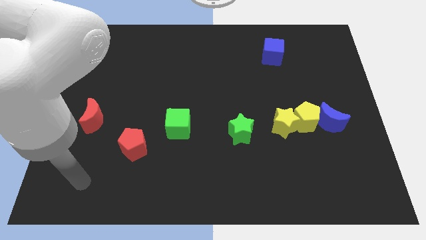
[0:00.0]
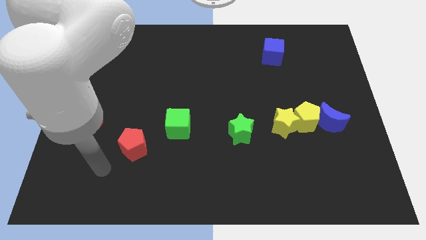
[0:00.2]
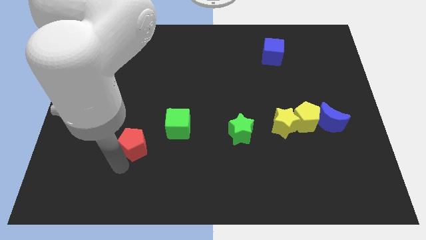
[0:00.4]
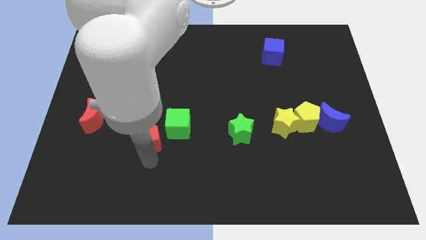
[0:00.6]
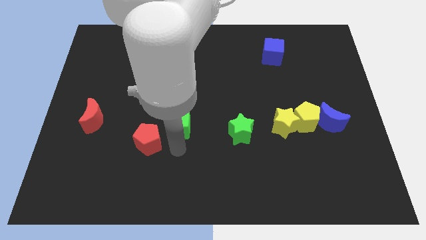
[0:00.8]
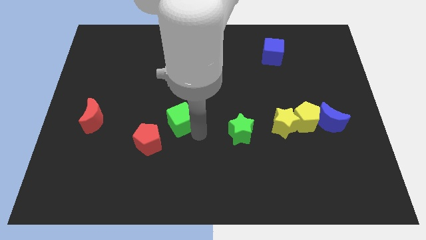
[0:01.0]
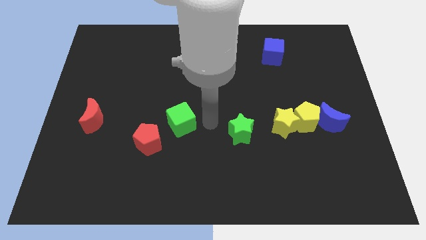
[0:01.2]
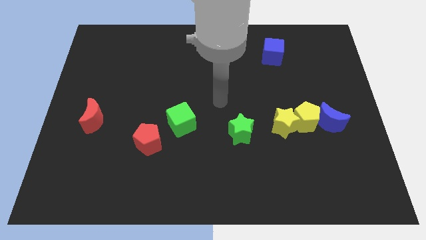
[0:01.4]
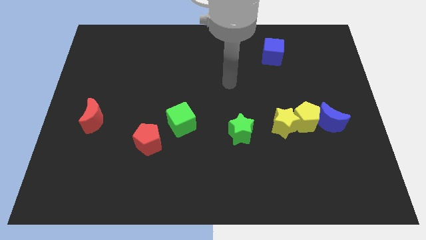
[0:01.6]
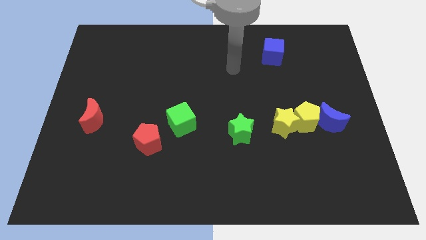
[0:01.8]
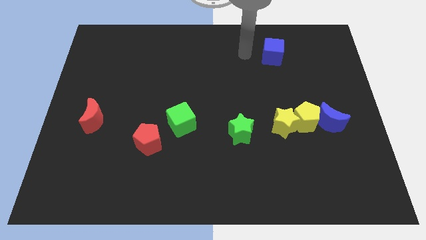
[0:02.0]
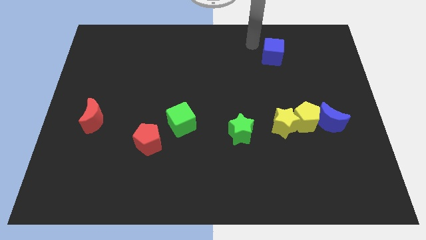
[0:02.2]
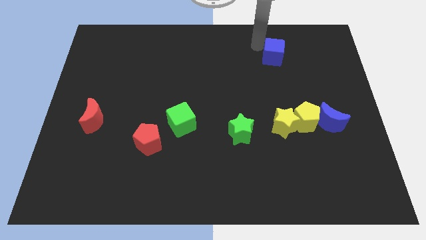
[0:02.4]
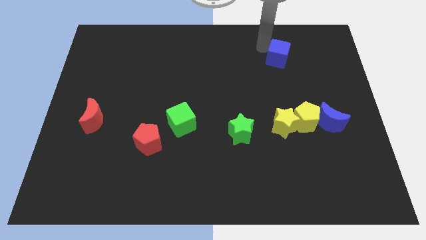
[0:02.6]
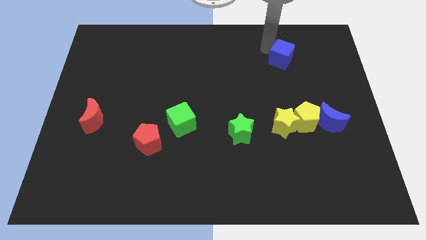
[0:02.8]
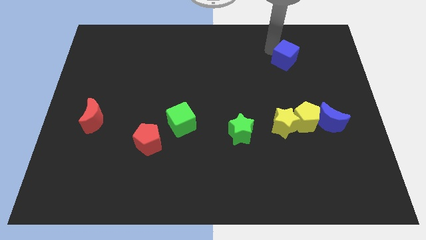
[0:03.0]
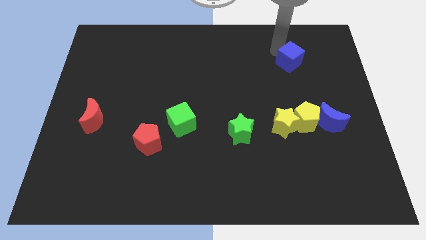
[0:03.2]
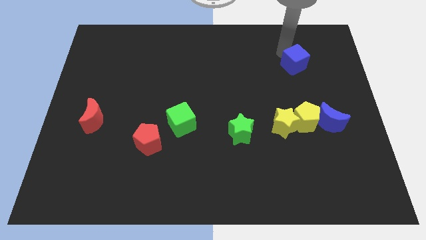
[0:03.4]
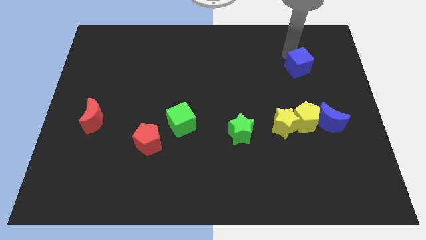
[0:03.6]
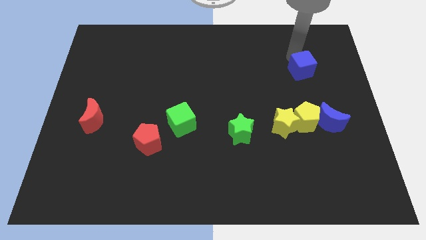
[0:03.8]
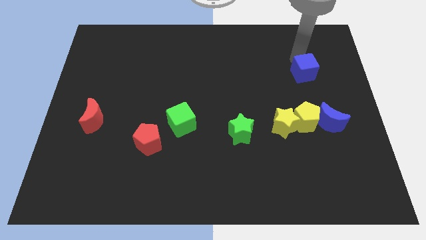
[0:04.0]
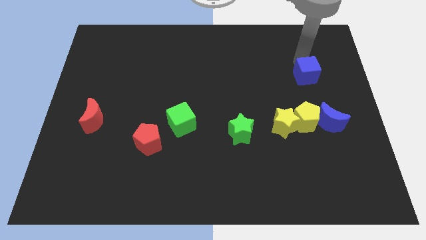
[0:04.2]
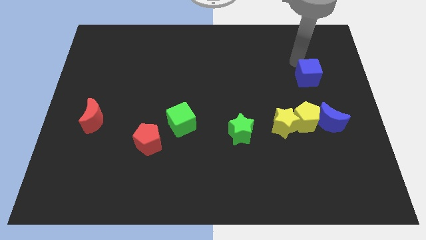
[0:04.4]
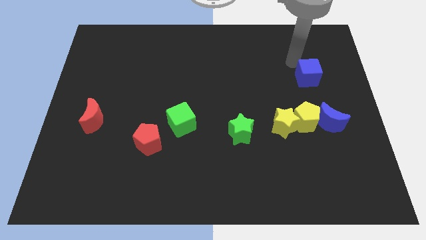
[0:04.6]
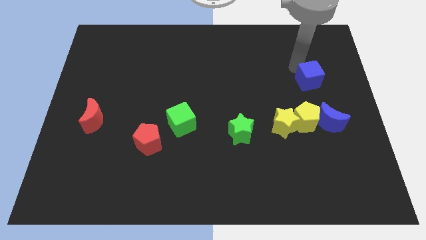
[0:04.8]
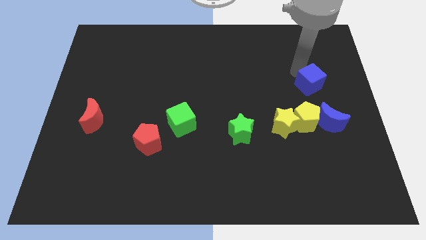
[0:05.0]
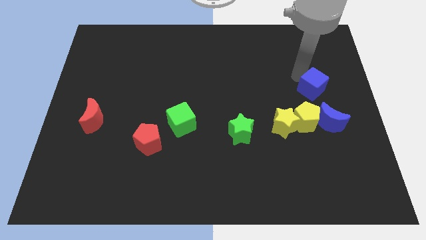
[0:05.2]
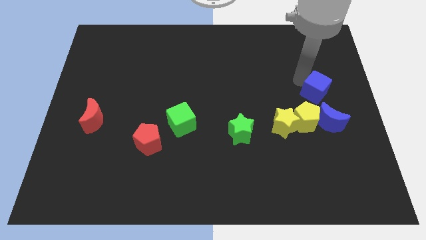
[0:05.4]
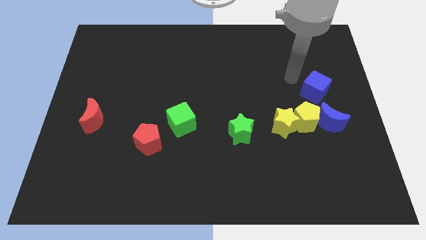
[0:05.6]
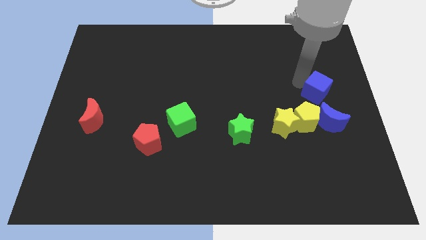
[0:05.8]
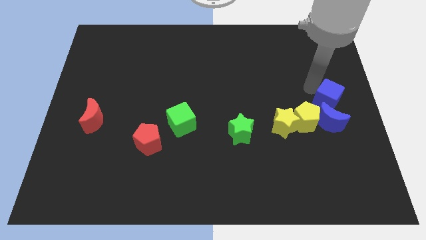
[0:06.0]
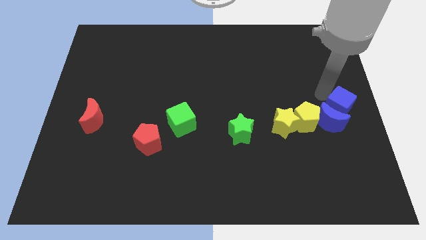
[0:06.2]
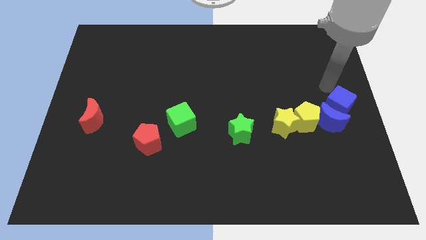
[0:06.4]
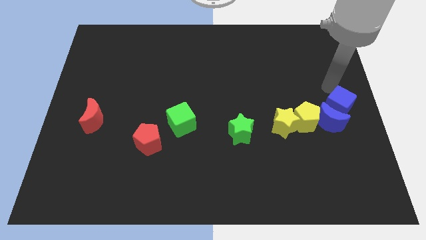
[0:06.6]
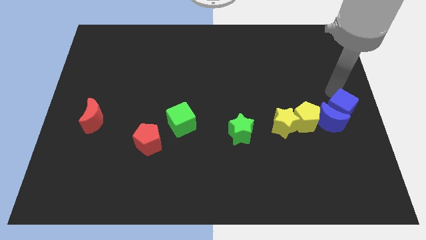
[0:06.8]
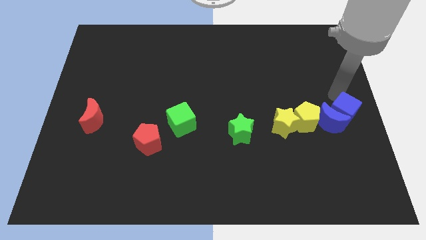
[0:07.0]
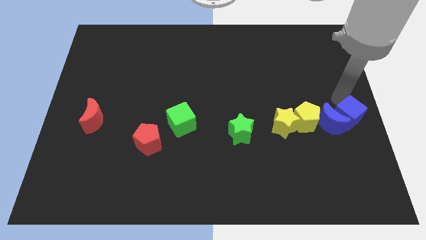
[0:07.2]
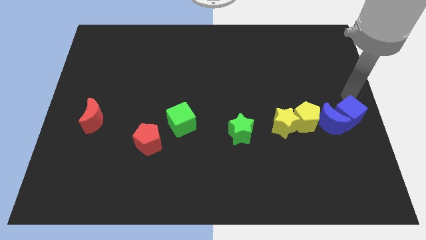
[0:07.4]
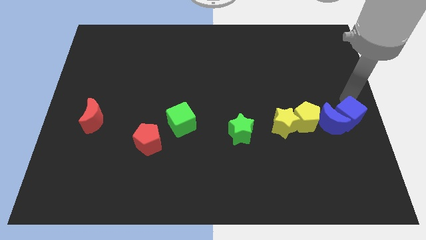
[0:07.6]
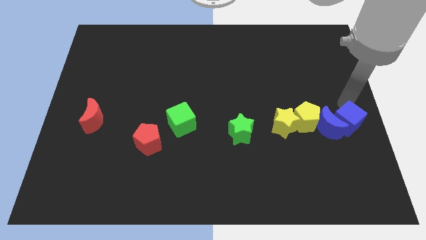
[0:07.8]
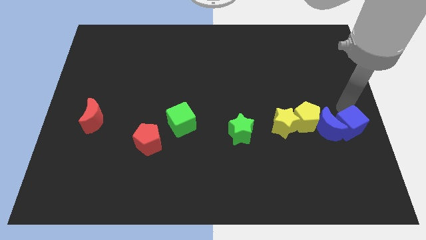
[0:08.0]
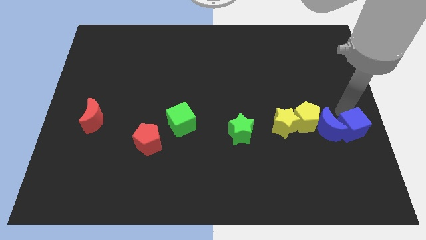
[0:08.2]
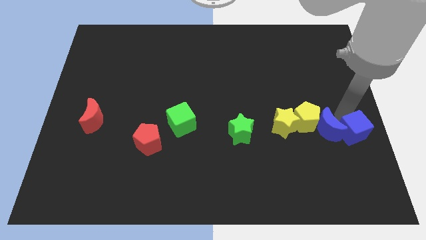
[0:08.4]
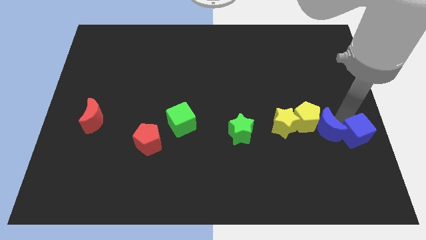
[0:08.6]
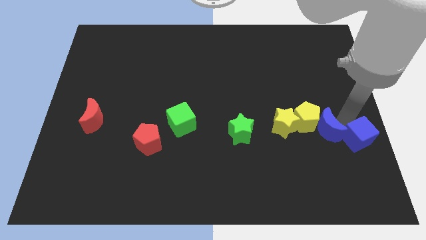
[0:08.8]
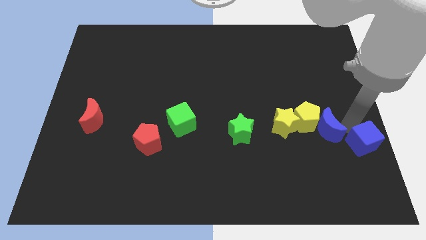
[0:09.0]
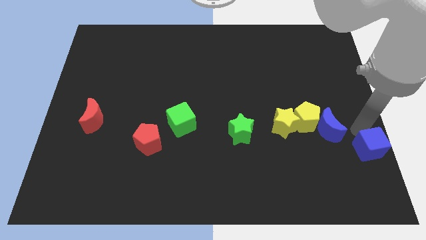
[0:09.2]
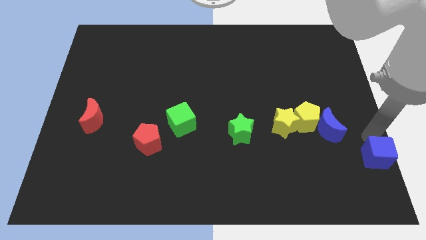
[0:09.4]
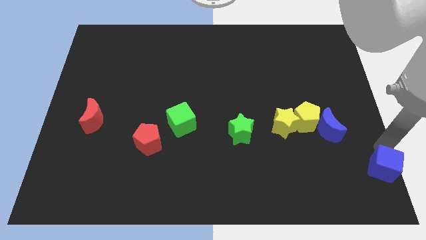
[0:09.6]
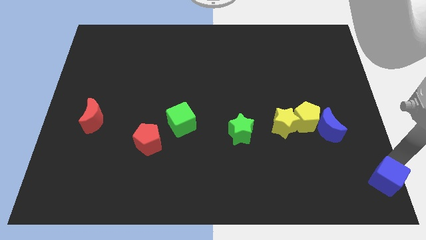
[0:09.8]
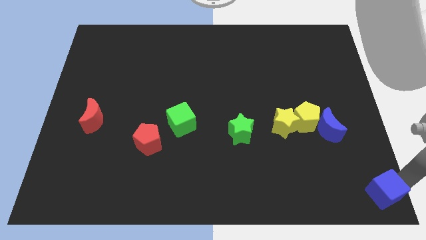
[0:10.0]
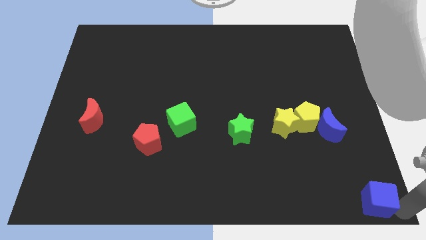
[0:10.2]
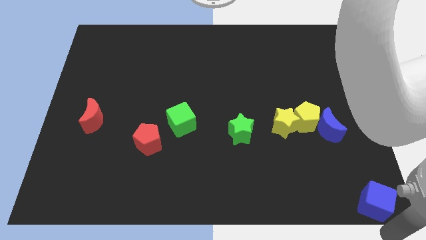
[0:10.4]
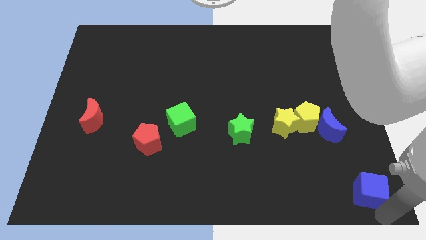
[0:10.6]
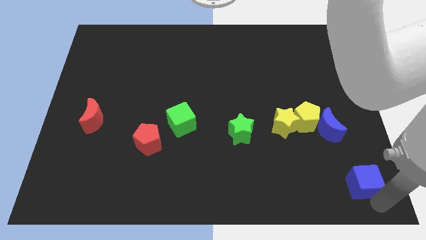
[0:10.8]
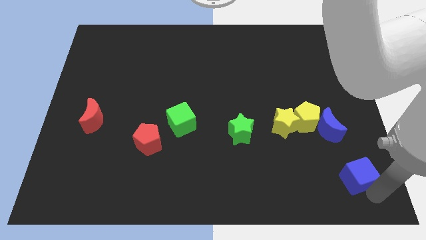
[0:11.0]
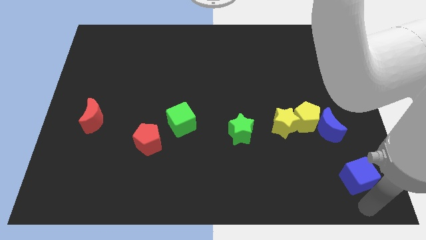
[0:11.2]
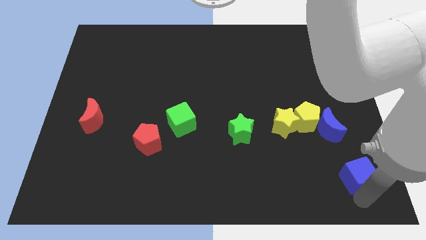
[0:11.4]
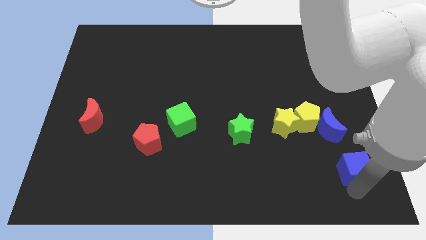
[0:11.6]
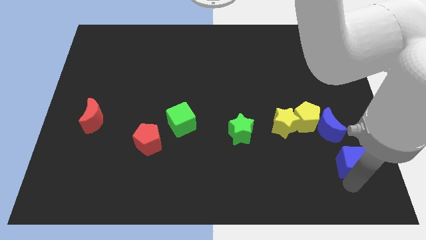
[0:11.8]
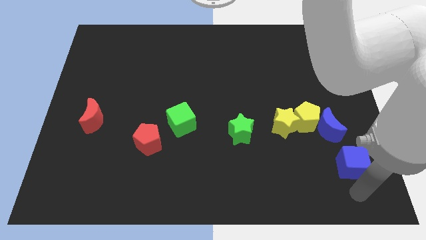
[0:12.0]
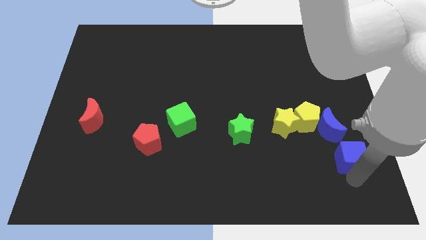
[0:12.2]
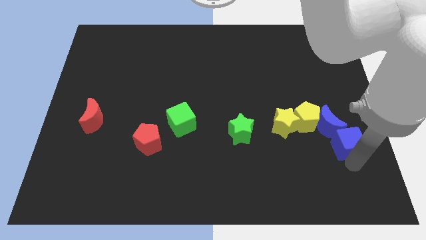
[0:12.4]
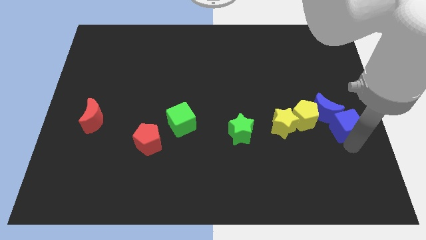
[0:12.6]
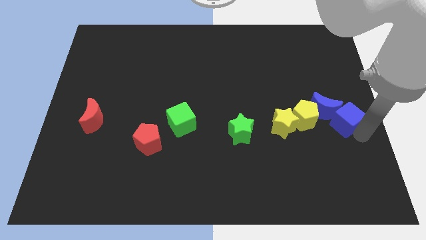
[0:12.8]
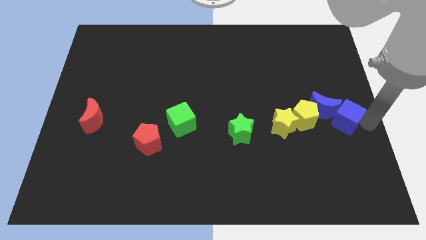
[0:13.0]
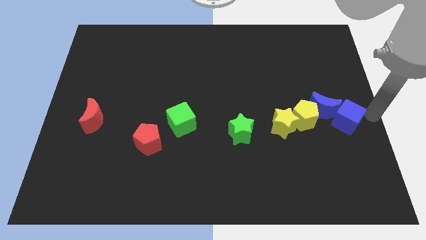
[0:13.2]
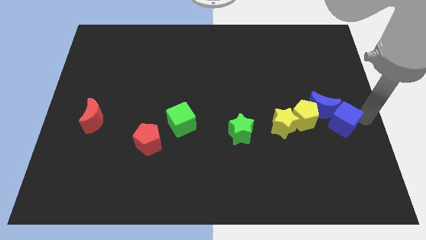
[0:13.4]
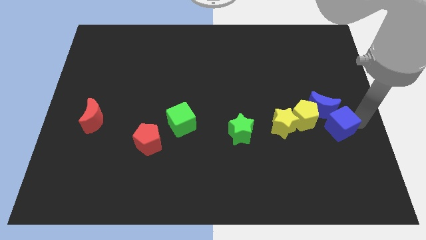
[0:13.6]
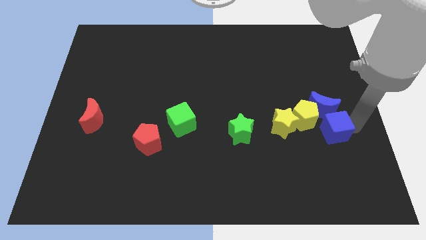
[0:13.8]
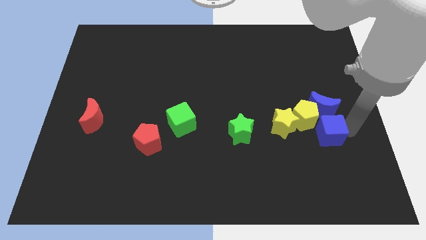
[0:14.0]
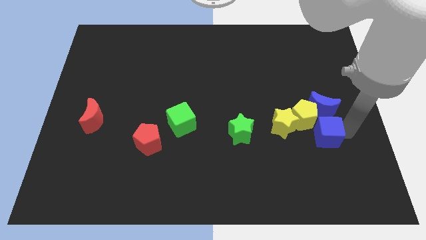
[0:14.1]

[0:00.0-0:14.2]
move the blue cube diagonally down and to the left of the blue moon
